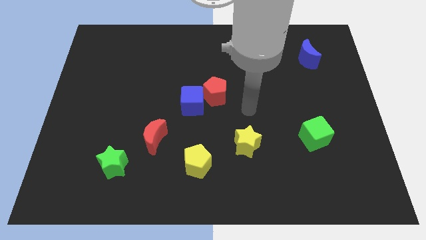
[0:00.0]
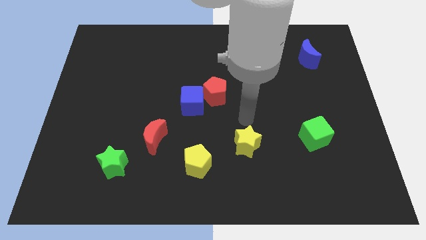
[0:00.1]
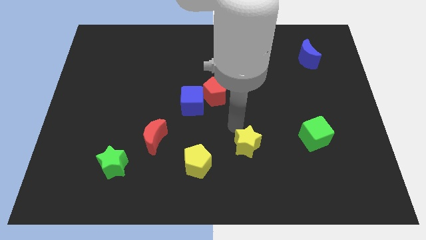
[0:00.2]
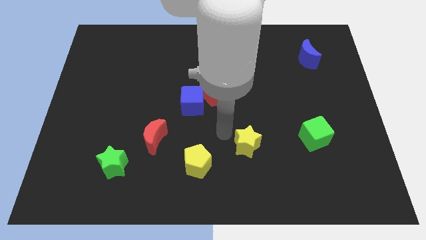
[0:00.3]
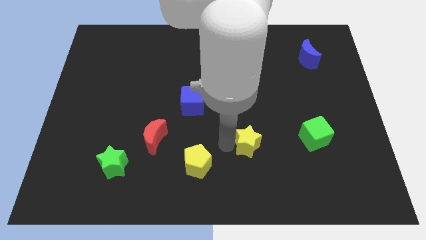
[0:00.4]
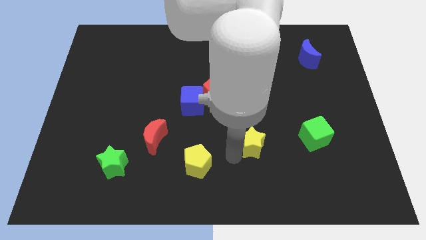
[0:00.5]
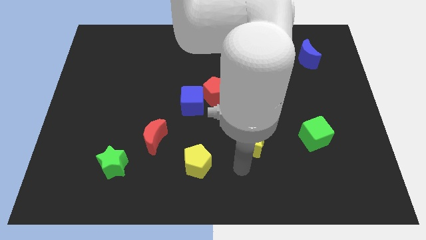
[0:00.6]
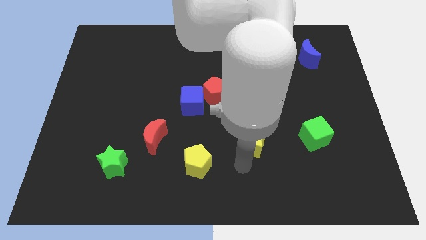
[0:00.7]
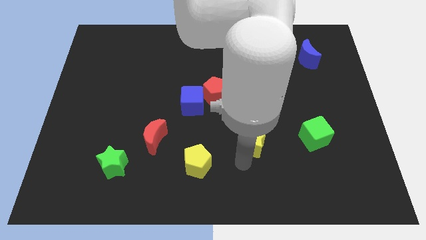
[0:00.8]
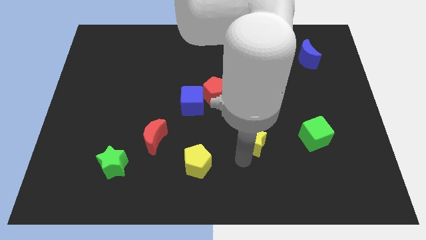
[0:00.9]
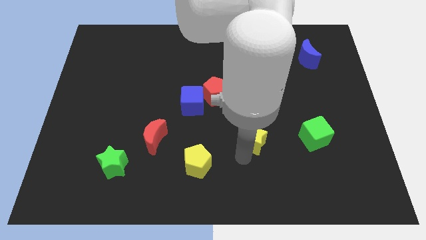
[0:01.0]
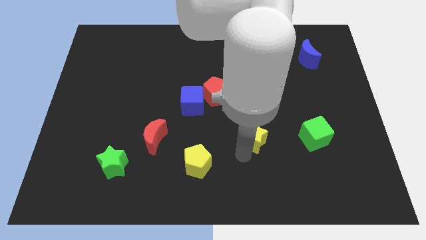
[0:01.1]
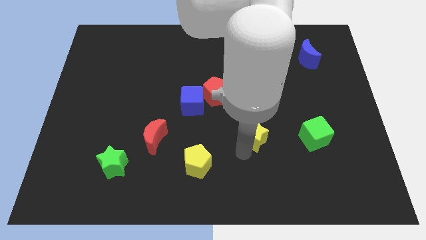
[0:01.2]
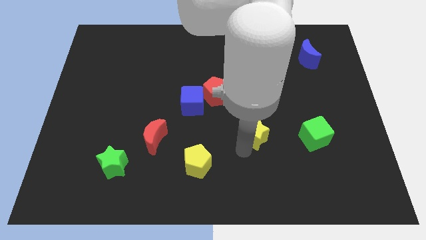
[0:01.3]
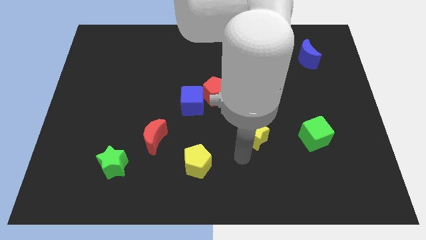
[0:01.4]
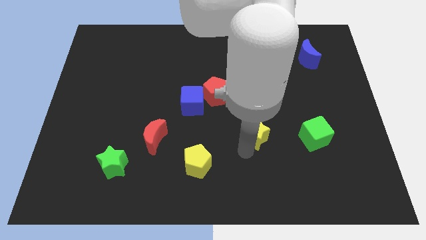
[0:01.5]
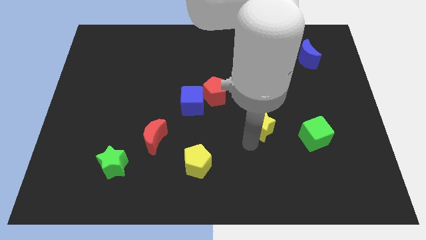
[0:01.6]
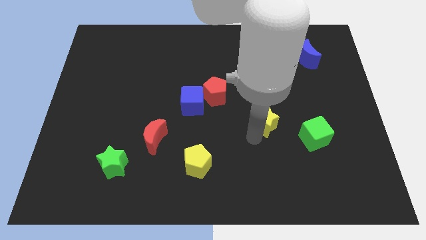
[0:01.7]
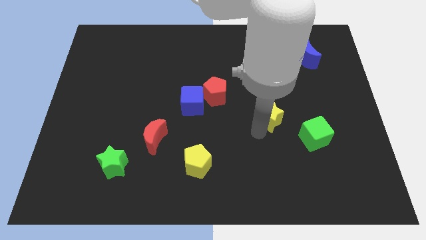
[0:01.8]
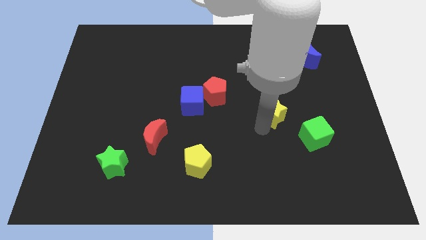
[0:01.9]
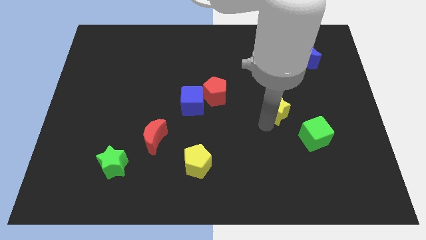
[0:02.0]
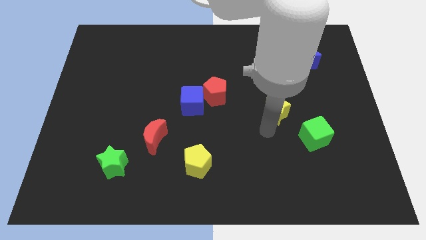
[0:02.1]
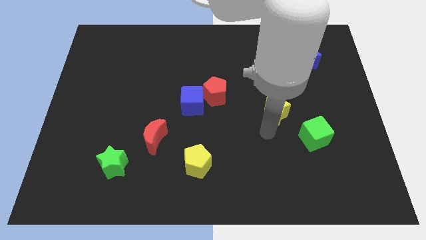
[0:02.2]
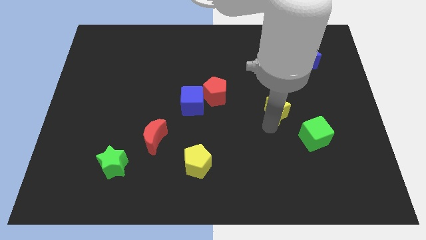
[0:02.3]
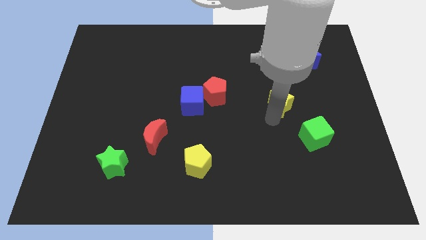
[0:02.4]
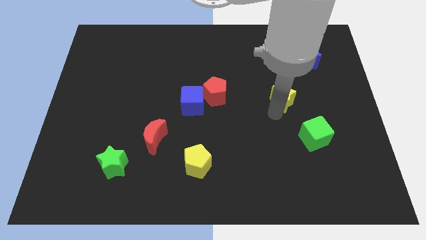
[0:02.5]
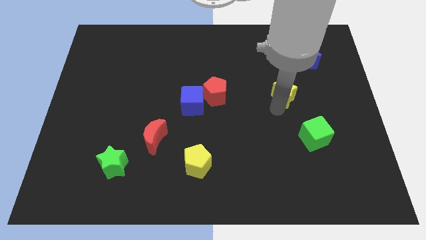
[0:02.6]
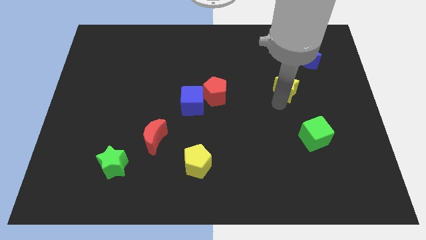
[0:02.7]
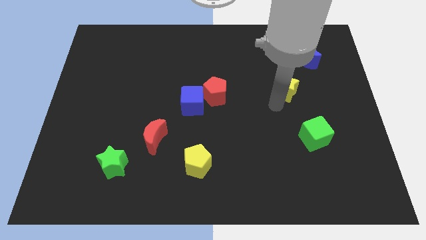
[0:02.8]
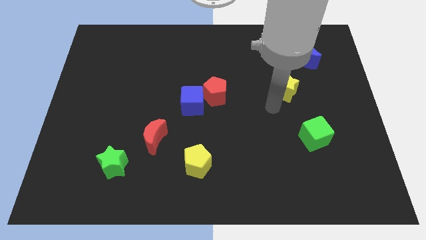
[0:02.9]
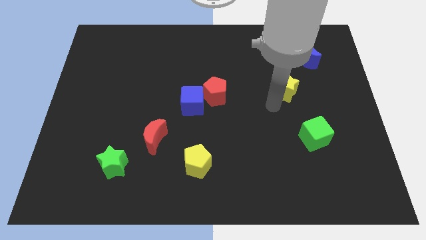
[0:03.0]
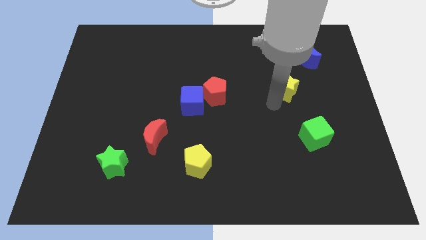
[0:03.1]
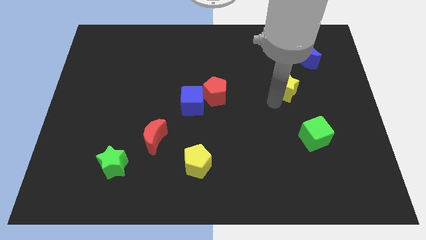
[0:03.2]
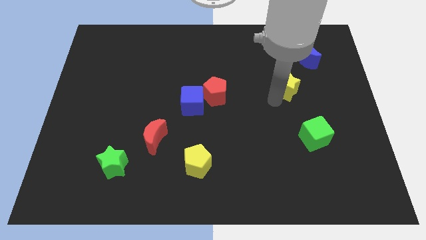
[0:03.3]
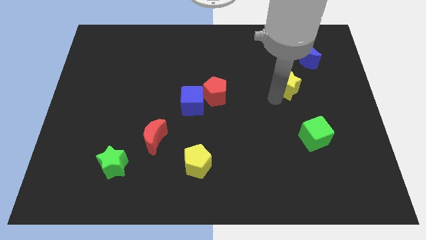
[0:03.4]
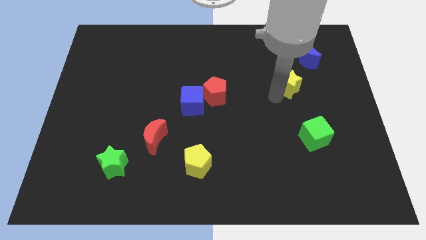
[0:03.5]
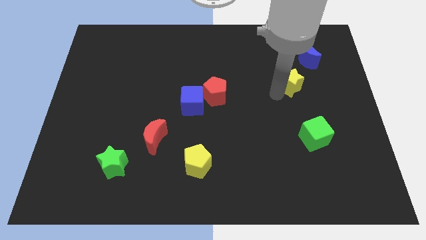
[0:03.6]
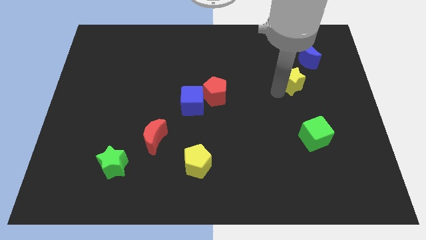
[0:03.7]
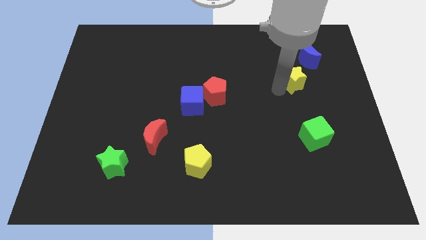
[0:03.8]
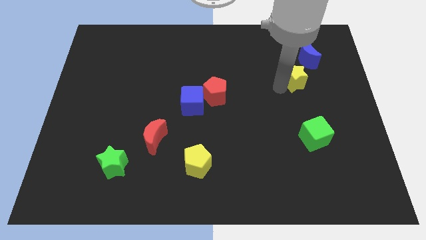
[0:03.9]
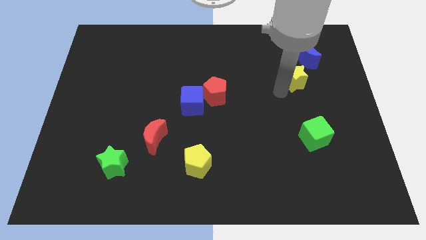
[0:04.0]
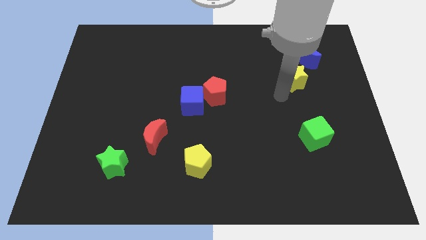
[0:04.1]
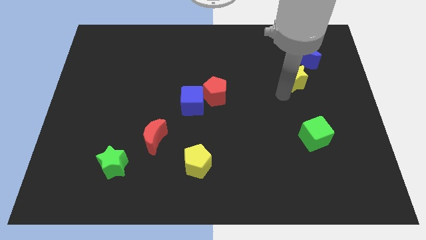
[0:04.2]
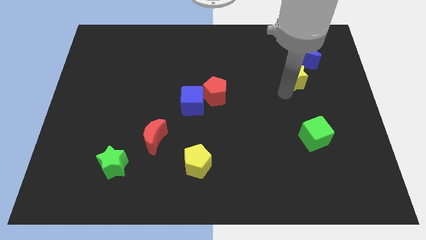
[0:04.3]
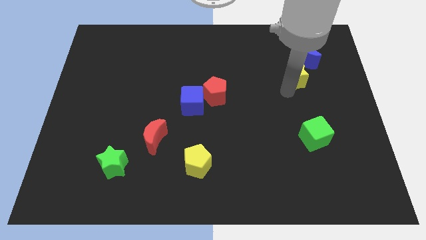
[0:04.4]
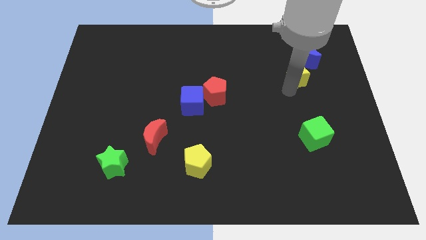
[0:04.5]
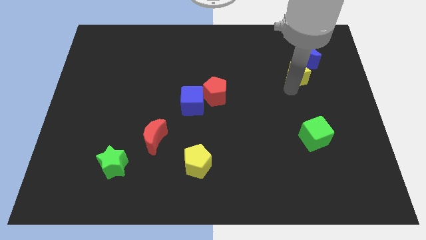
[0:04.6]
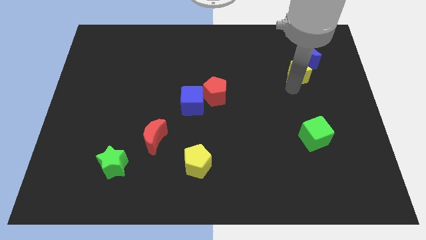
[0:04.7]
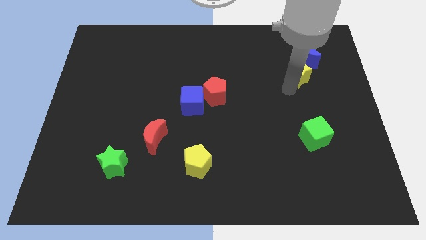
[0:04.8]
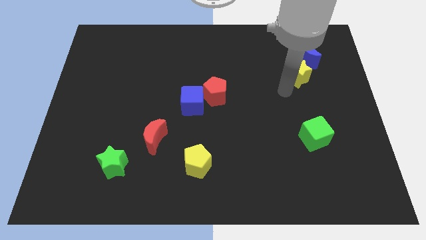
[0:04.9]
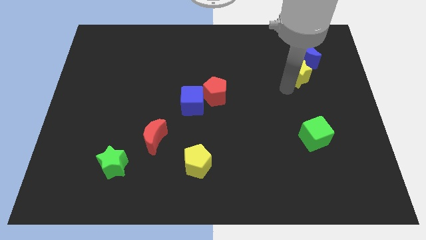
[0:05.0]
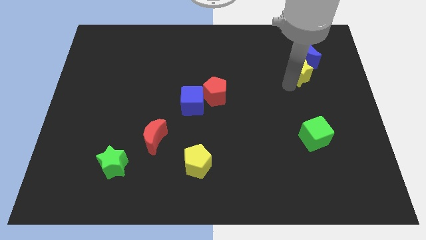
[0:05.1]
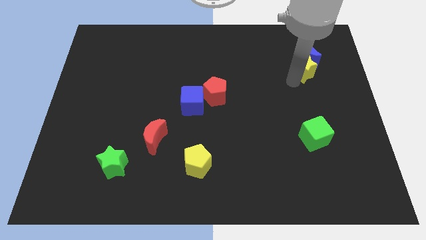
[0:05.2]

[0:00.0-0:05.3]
push the yellow star towards the blue moon

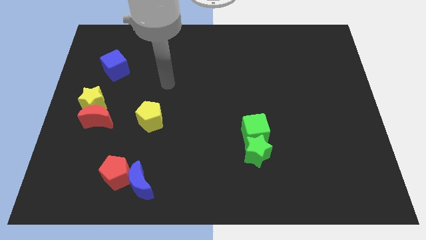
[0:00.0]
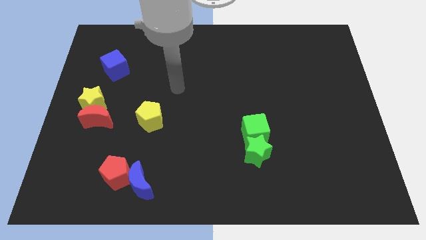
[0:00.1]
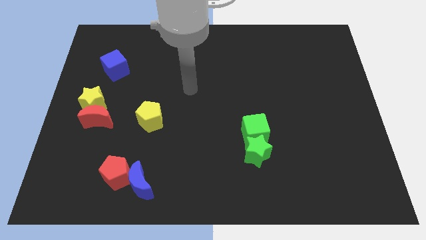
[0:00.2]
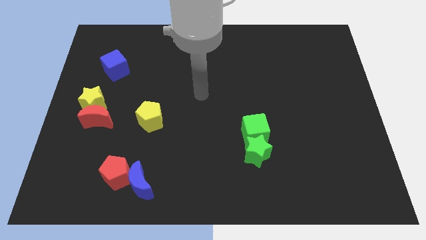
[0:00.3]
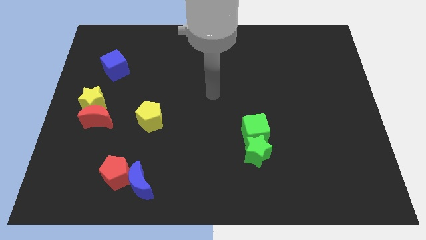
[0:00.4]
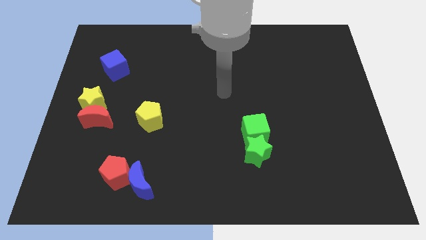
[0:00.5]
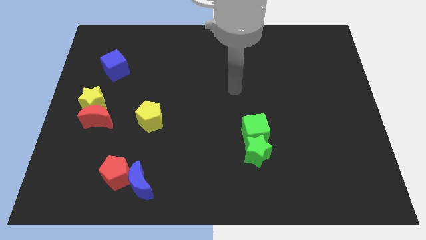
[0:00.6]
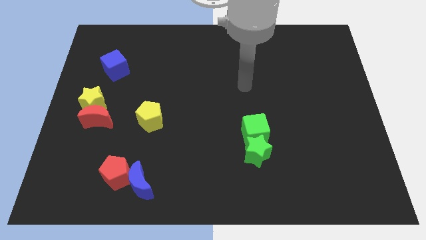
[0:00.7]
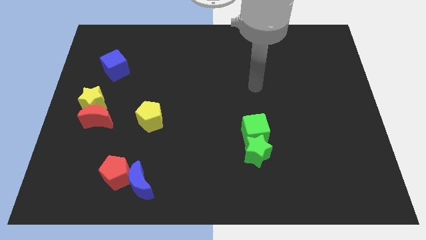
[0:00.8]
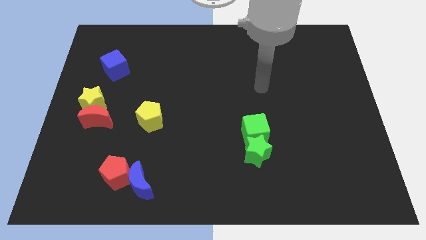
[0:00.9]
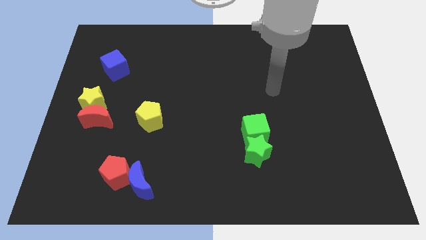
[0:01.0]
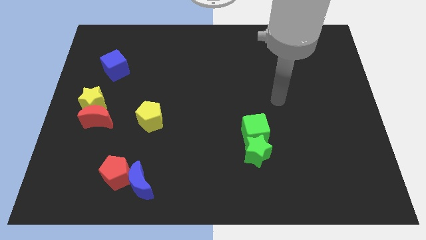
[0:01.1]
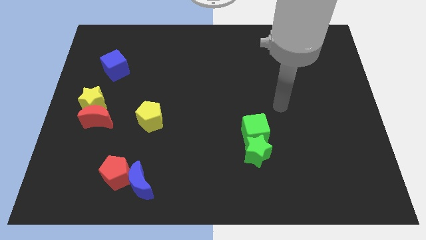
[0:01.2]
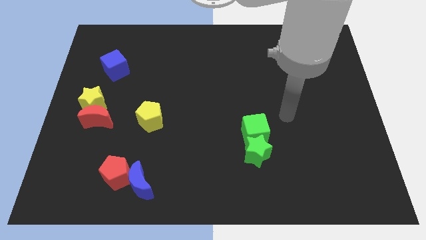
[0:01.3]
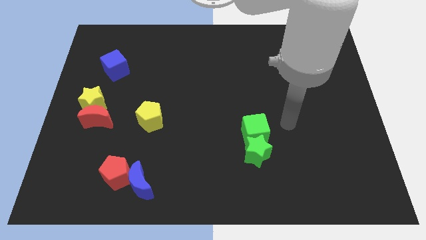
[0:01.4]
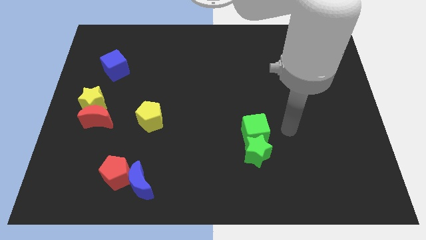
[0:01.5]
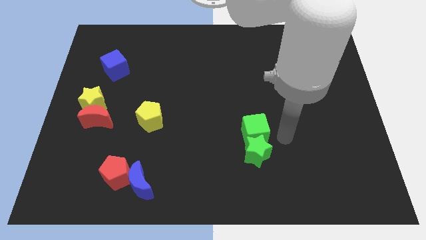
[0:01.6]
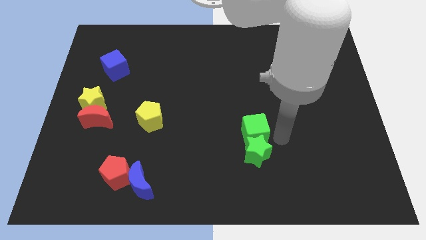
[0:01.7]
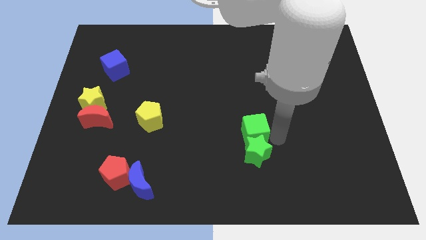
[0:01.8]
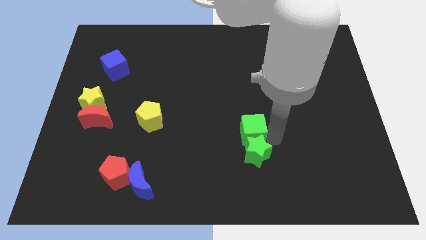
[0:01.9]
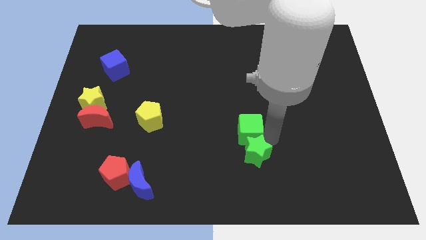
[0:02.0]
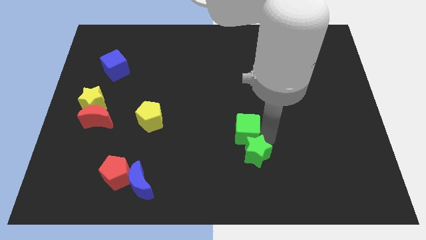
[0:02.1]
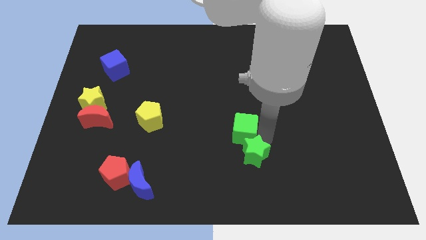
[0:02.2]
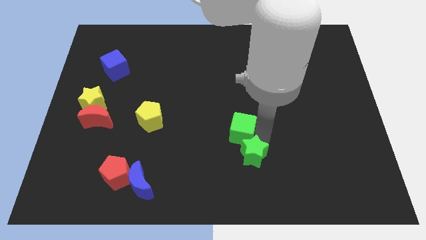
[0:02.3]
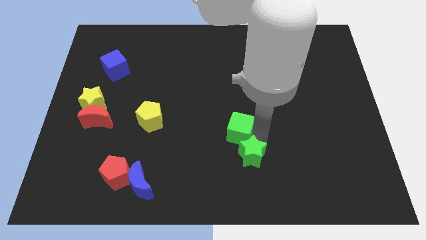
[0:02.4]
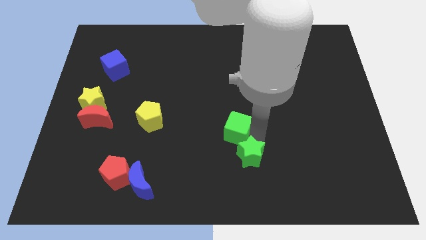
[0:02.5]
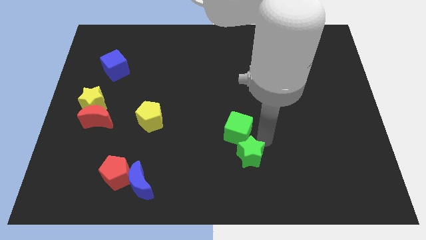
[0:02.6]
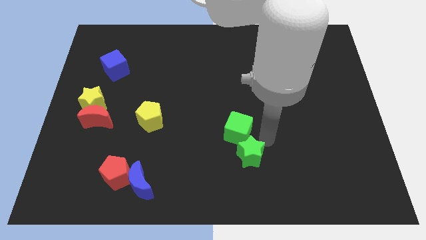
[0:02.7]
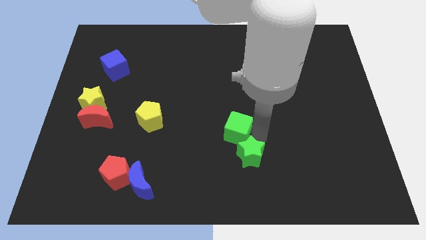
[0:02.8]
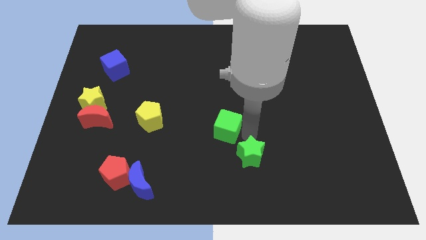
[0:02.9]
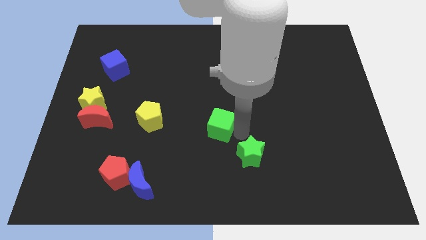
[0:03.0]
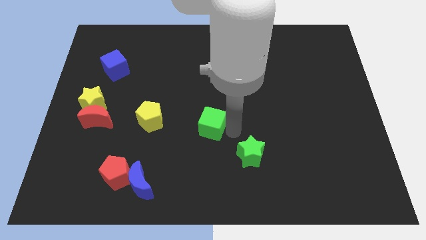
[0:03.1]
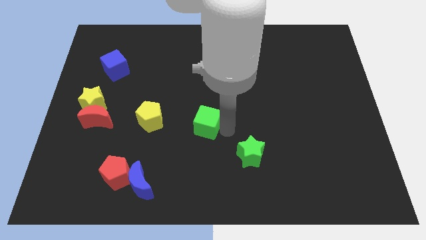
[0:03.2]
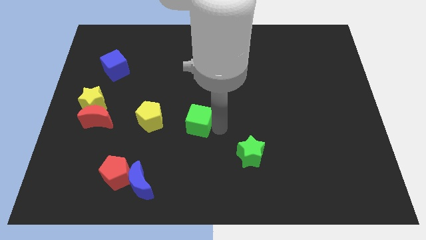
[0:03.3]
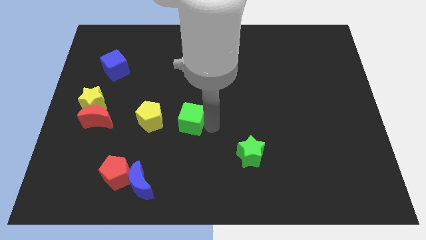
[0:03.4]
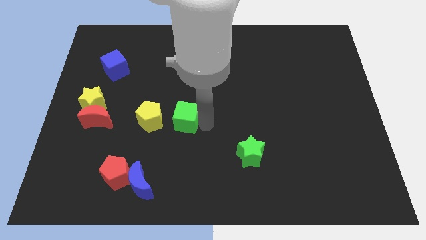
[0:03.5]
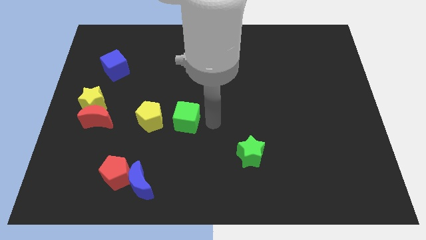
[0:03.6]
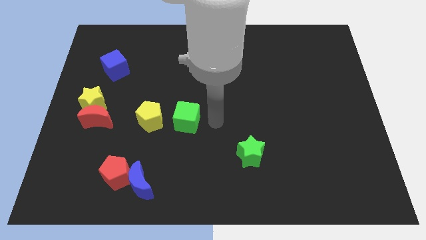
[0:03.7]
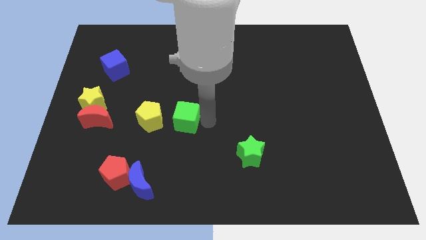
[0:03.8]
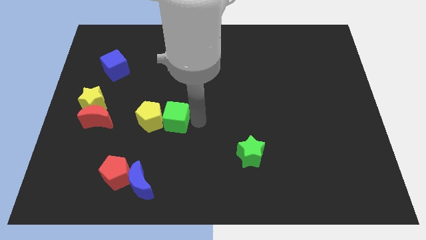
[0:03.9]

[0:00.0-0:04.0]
slide the green cube to the yellow pentagon
